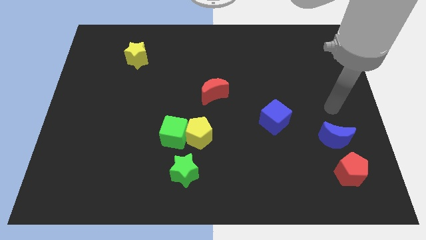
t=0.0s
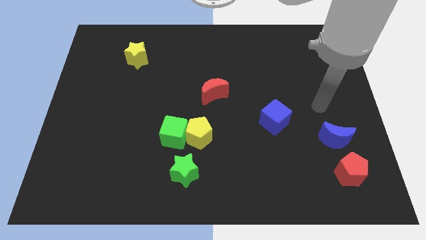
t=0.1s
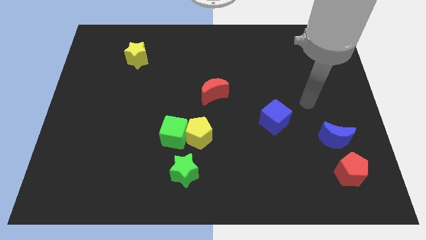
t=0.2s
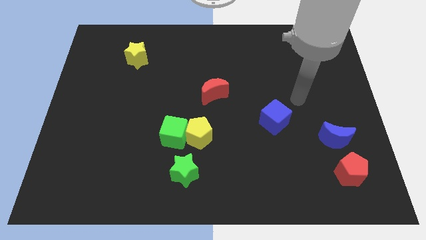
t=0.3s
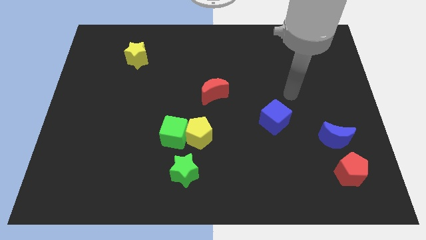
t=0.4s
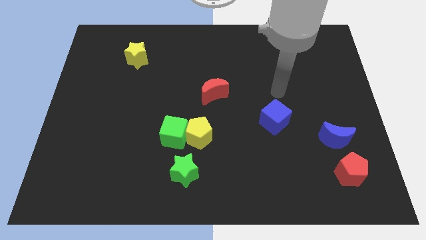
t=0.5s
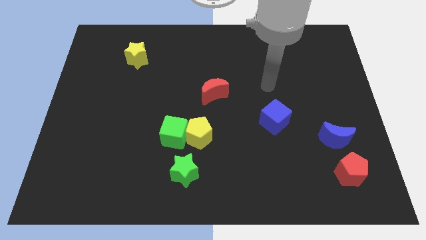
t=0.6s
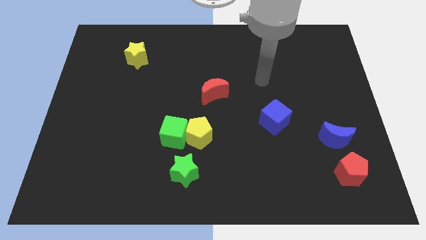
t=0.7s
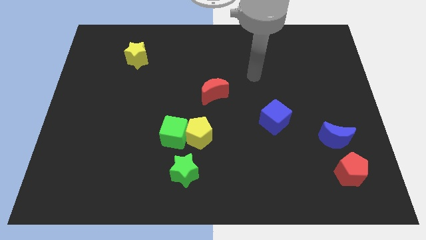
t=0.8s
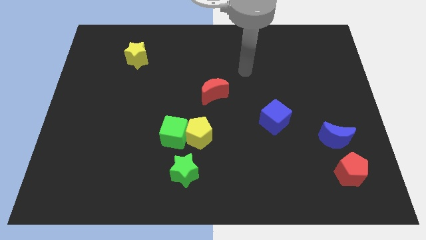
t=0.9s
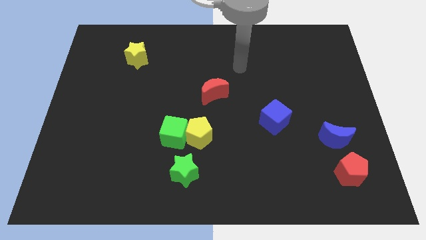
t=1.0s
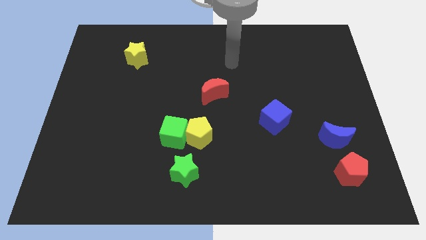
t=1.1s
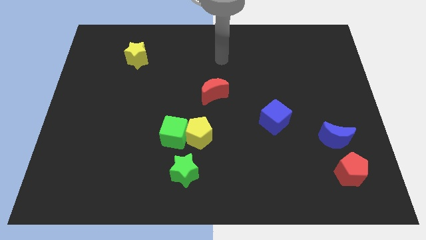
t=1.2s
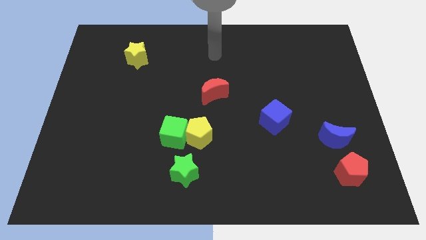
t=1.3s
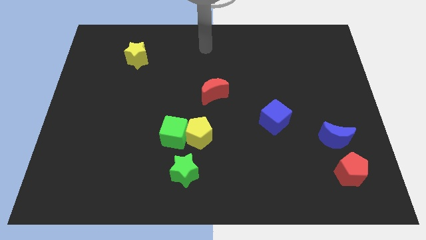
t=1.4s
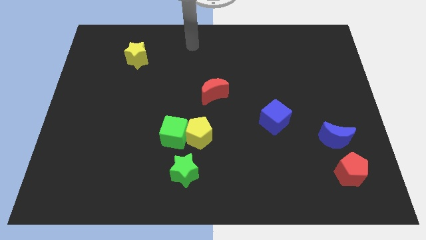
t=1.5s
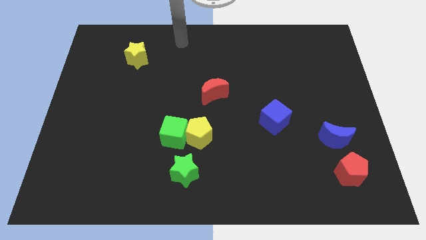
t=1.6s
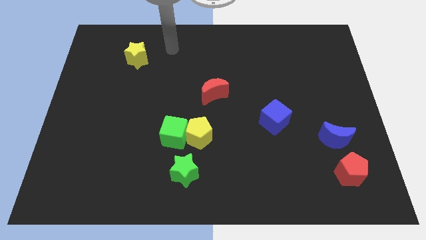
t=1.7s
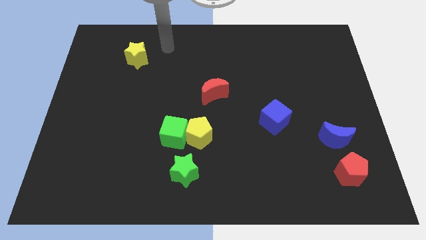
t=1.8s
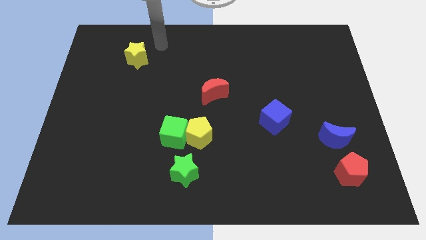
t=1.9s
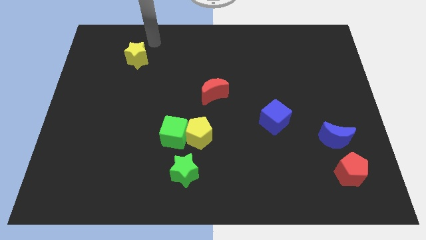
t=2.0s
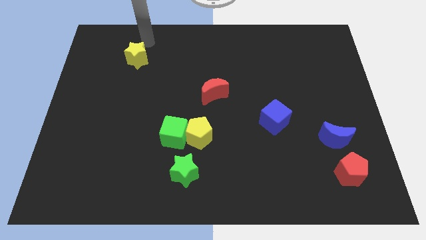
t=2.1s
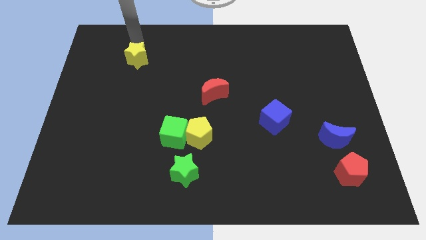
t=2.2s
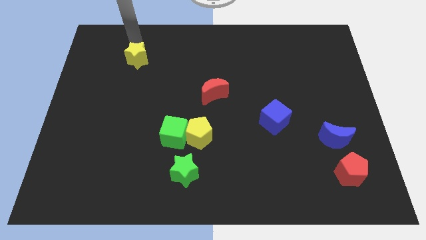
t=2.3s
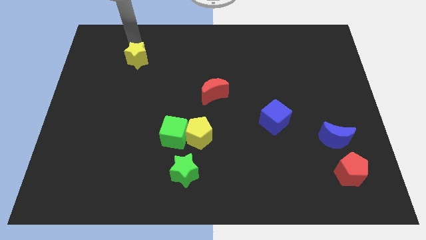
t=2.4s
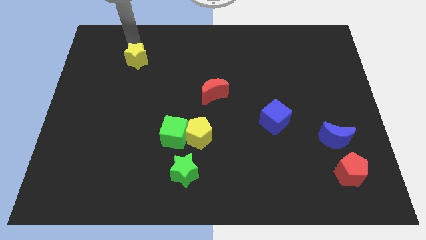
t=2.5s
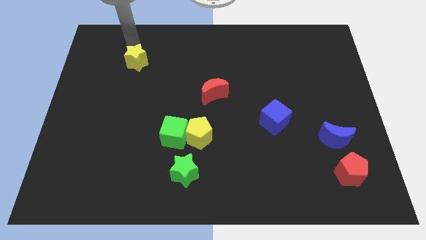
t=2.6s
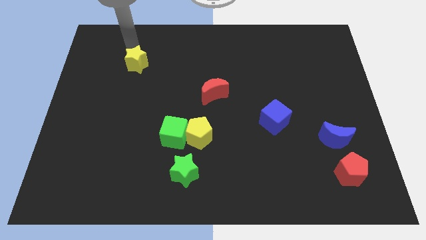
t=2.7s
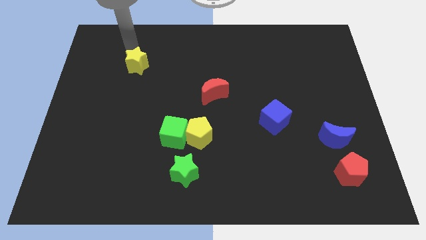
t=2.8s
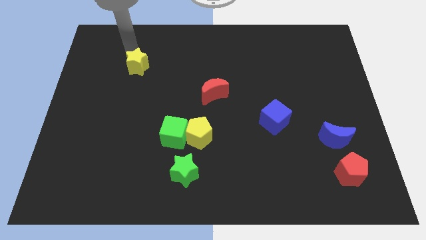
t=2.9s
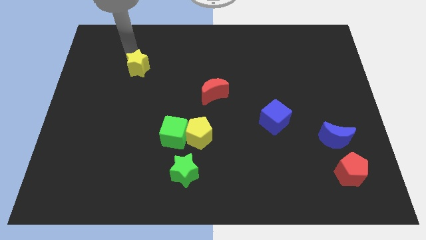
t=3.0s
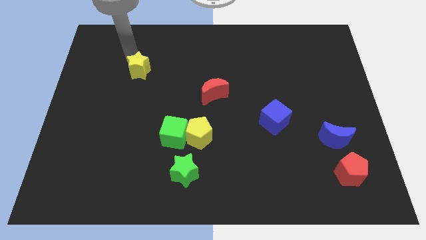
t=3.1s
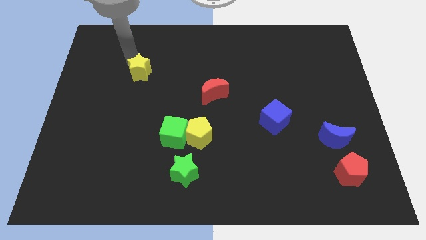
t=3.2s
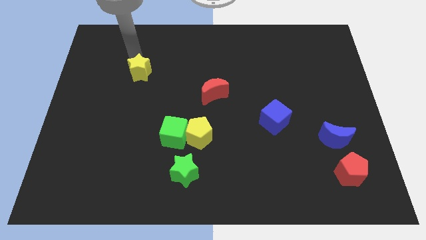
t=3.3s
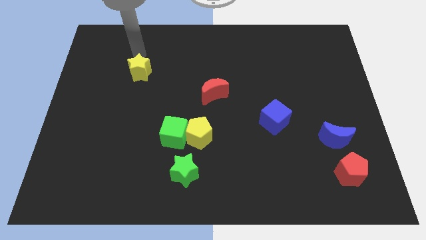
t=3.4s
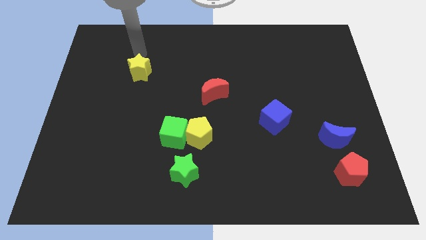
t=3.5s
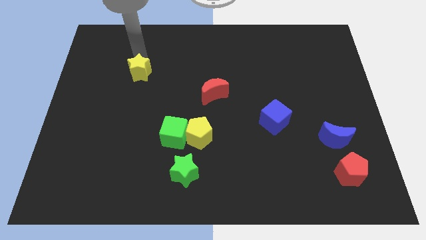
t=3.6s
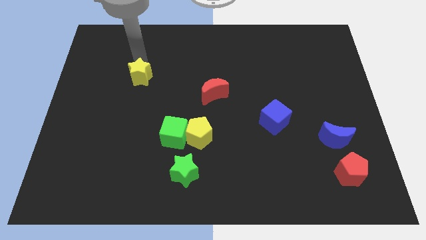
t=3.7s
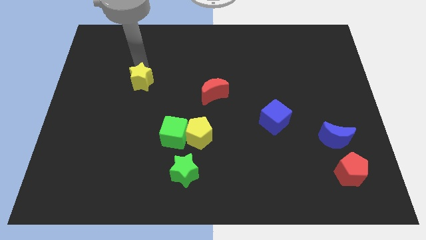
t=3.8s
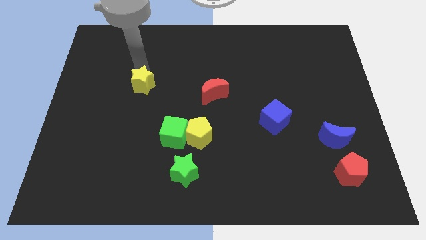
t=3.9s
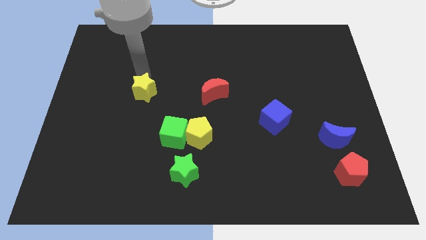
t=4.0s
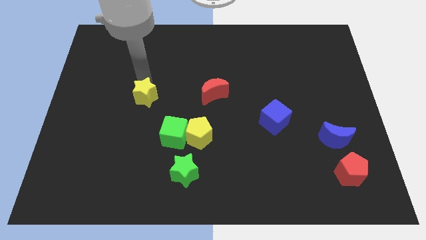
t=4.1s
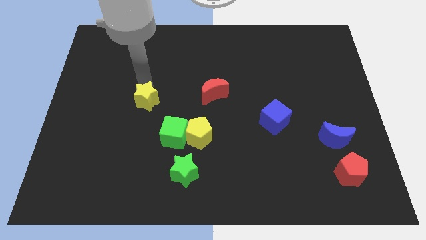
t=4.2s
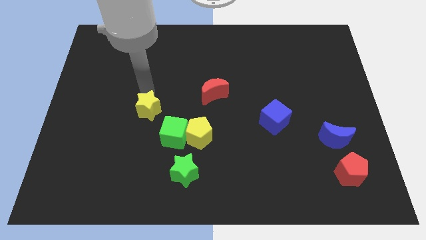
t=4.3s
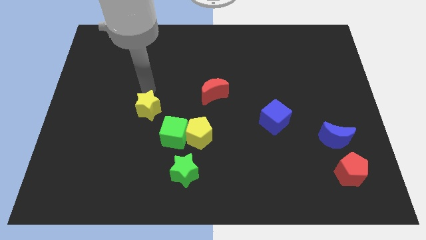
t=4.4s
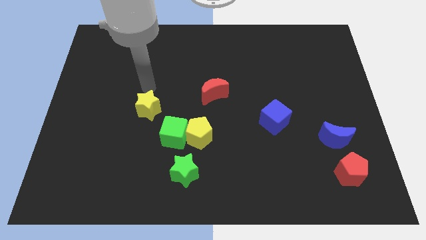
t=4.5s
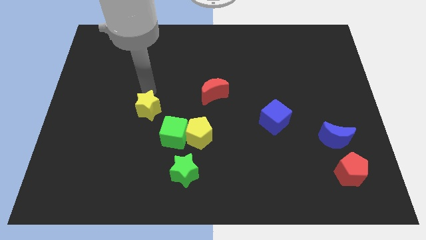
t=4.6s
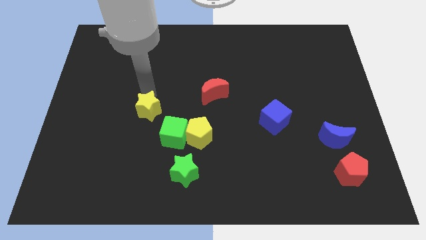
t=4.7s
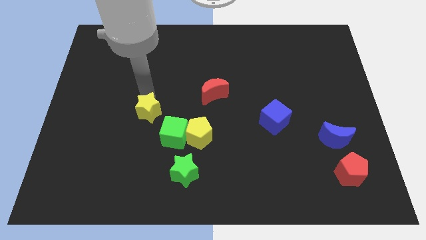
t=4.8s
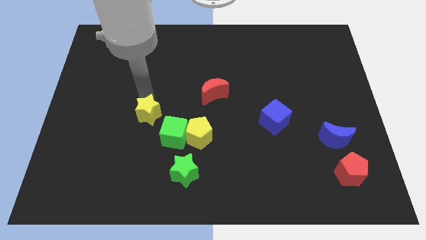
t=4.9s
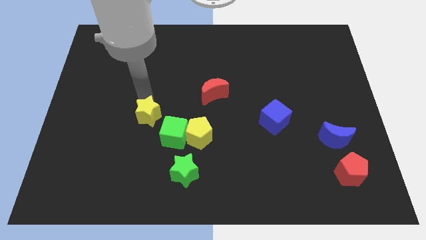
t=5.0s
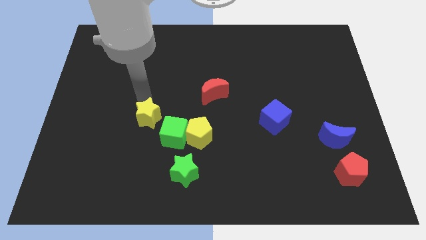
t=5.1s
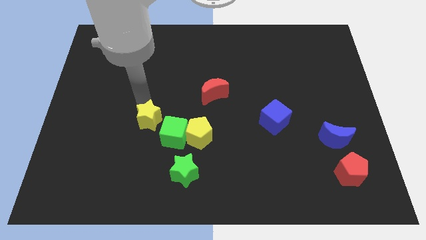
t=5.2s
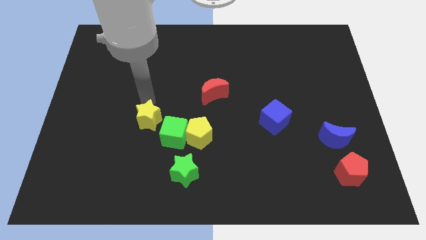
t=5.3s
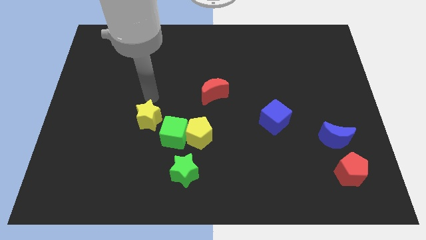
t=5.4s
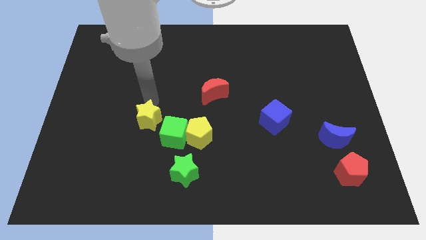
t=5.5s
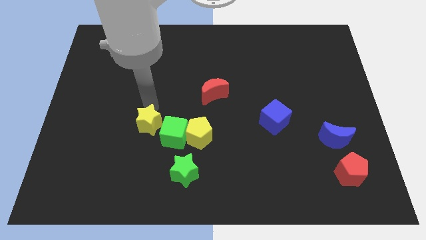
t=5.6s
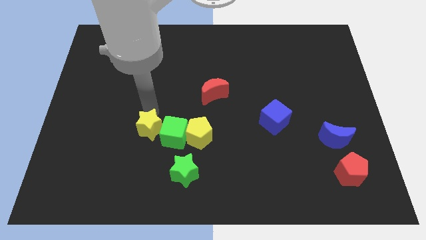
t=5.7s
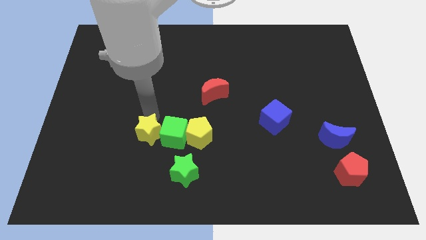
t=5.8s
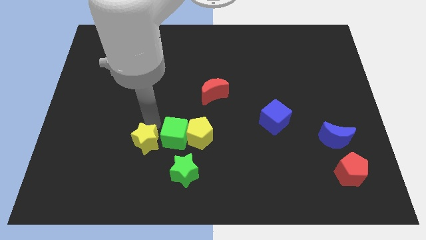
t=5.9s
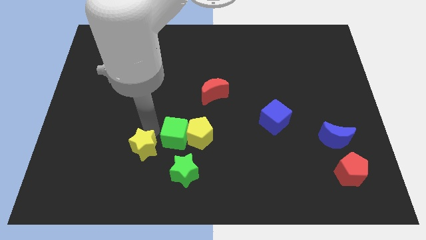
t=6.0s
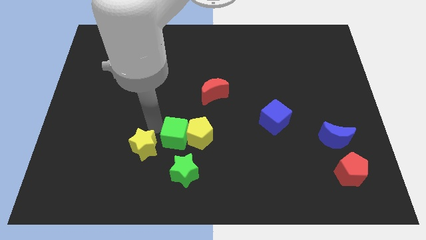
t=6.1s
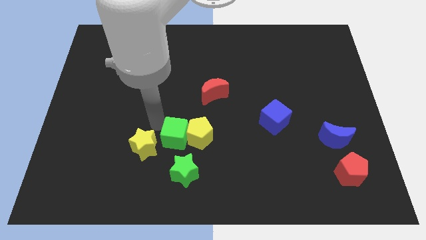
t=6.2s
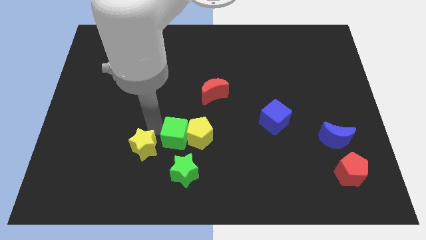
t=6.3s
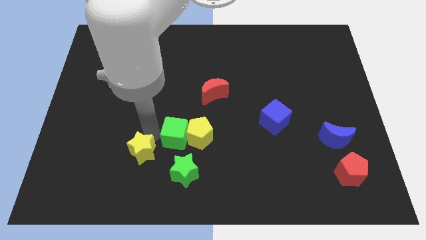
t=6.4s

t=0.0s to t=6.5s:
slide the yellow star left of the green star

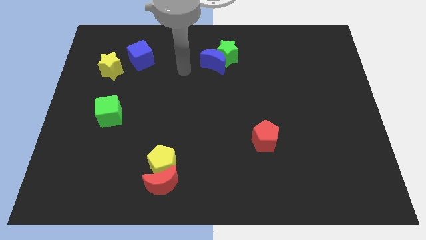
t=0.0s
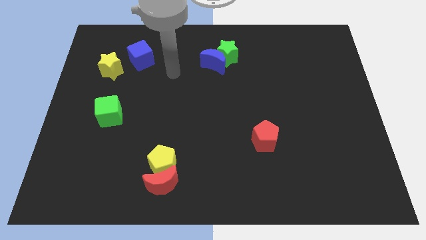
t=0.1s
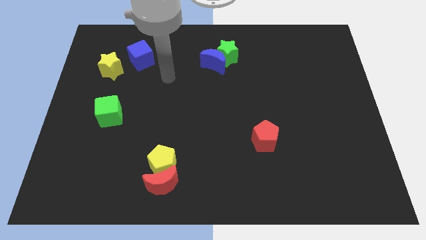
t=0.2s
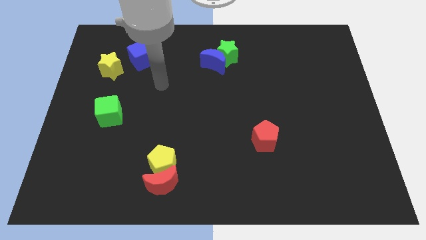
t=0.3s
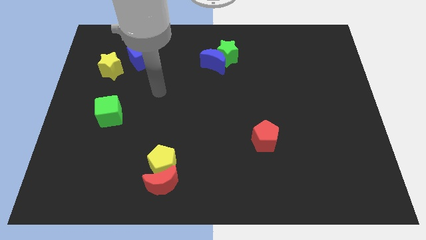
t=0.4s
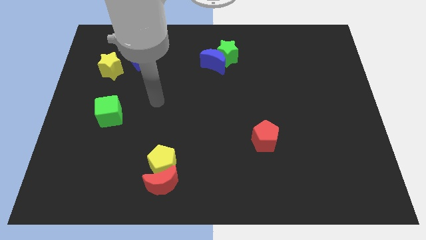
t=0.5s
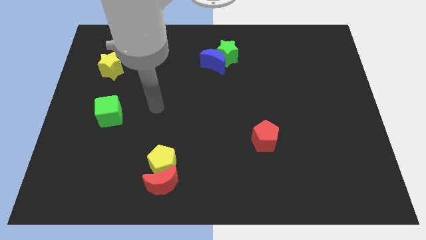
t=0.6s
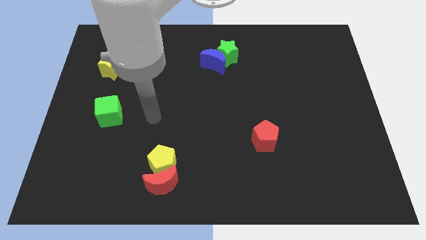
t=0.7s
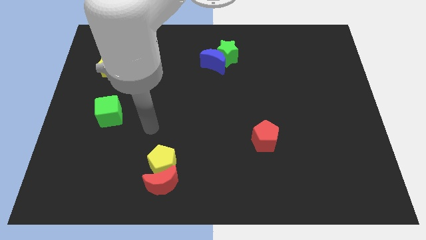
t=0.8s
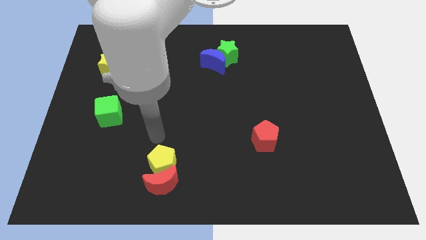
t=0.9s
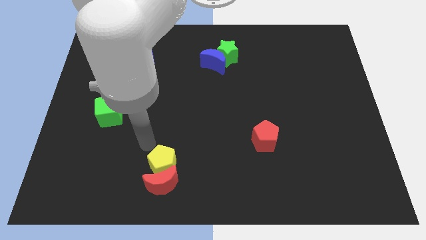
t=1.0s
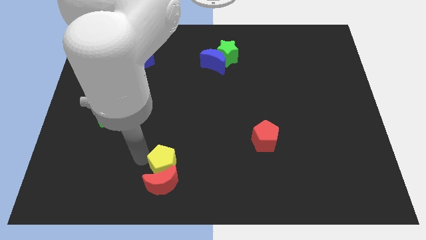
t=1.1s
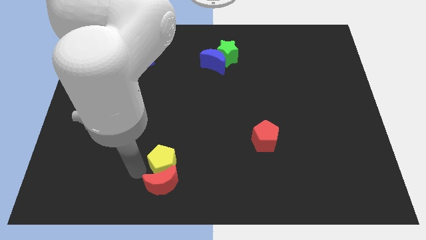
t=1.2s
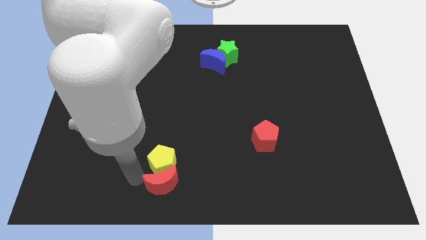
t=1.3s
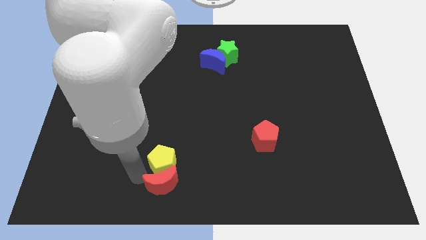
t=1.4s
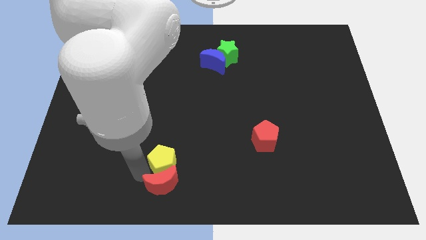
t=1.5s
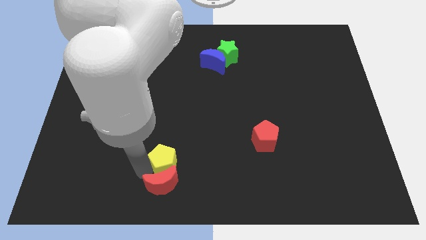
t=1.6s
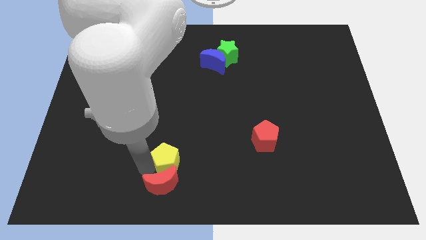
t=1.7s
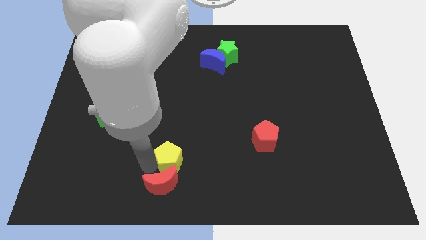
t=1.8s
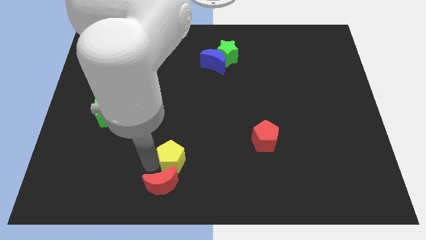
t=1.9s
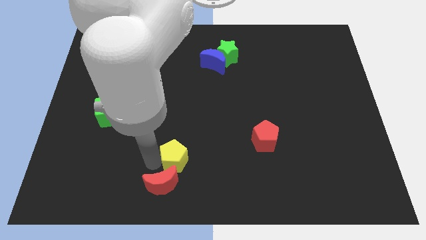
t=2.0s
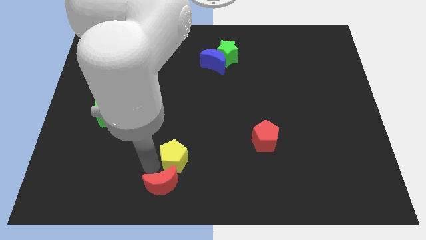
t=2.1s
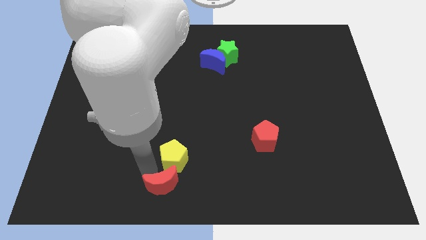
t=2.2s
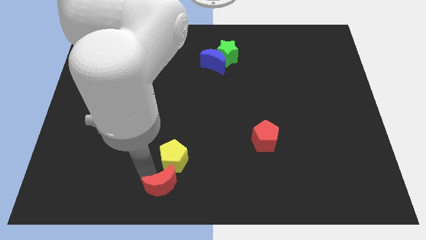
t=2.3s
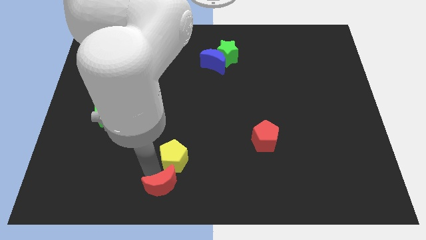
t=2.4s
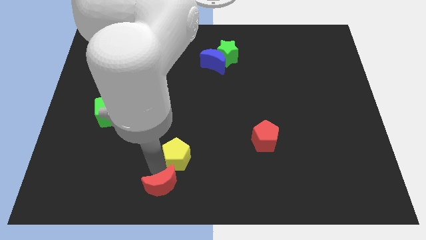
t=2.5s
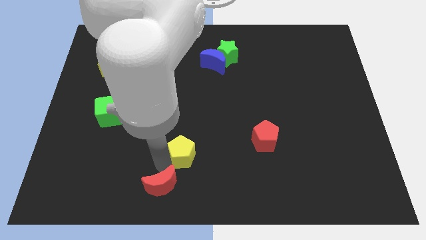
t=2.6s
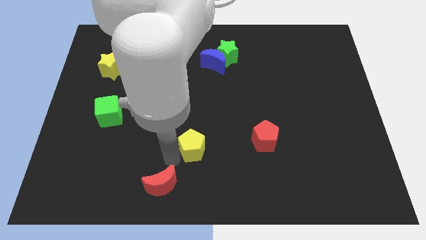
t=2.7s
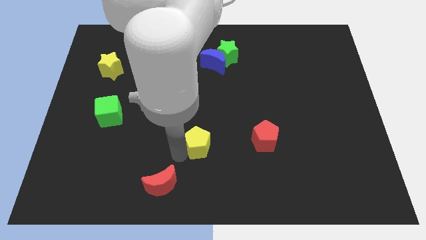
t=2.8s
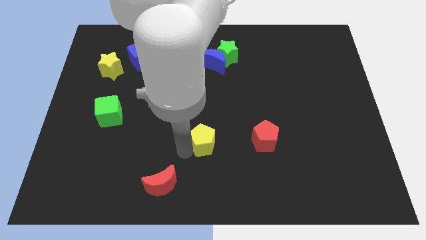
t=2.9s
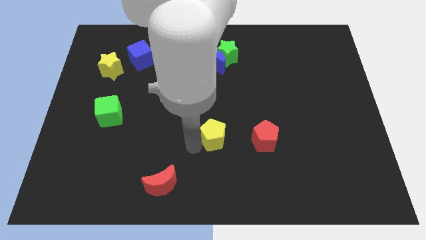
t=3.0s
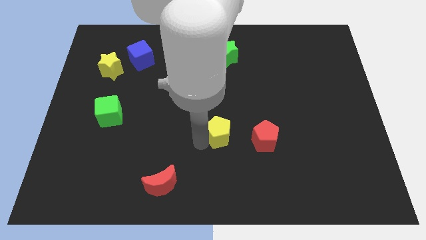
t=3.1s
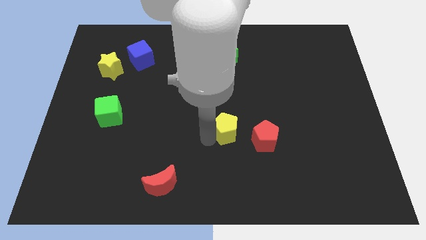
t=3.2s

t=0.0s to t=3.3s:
put the yellow pentagon to the top left side of the red pentagon
